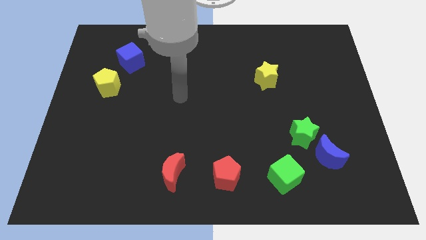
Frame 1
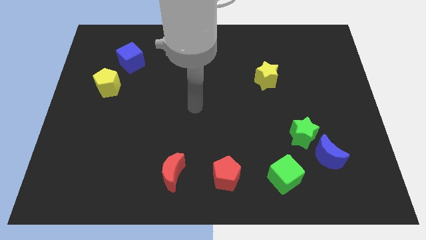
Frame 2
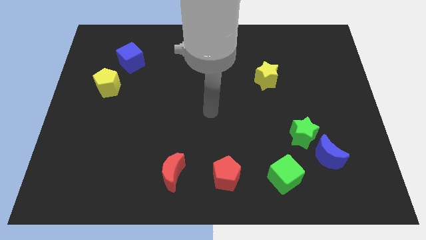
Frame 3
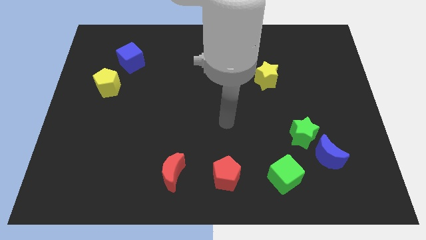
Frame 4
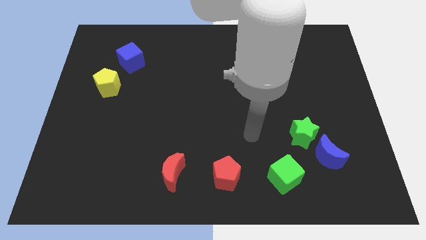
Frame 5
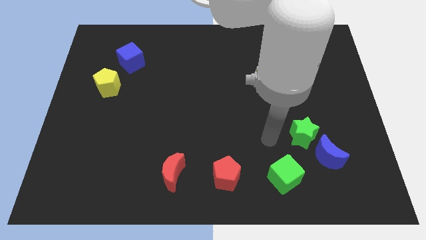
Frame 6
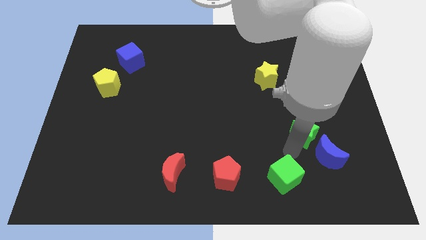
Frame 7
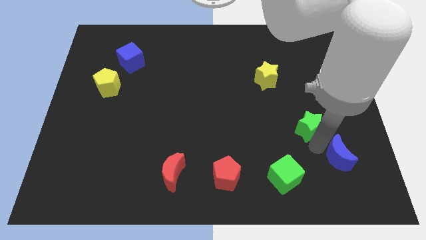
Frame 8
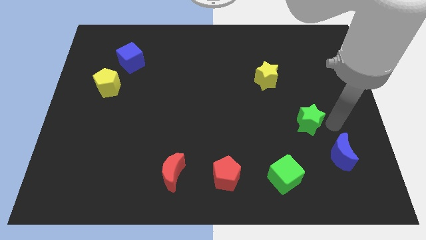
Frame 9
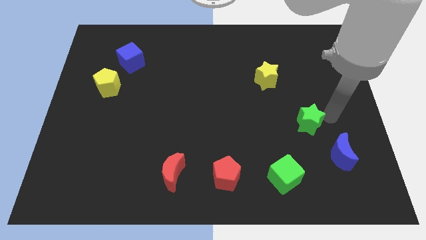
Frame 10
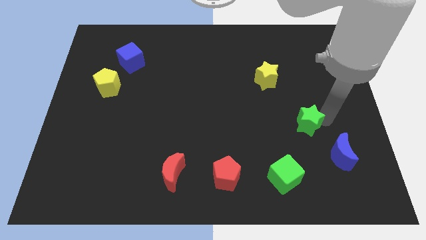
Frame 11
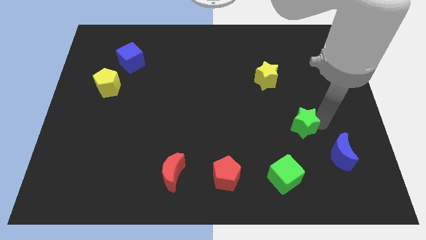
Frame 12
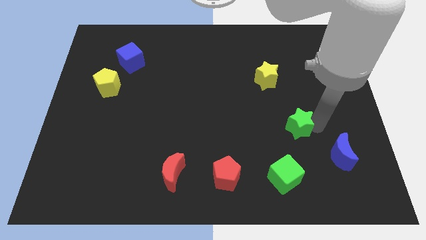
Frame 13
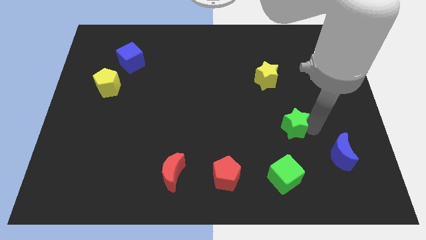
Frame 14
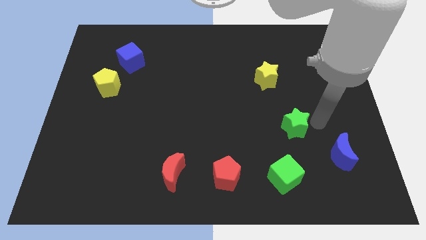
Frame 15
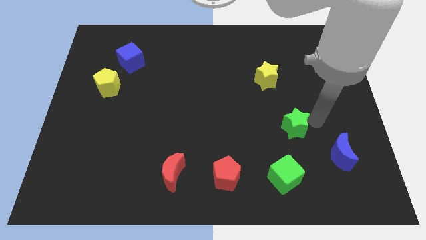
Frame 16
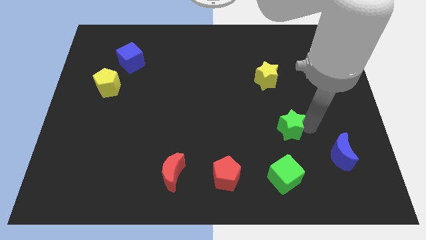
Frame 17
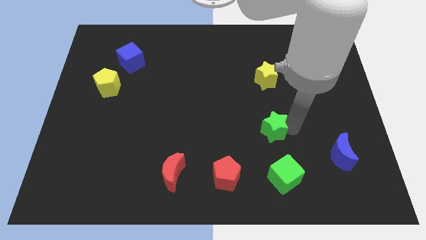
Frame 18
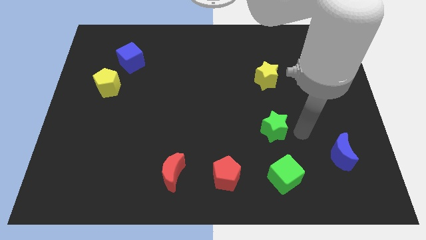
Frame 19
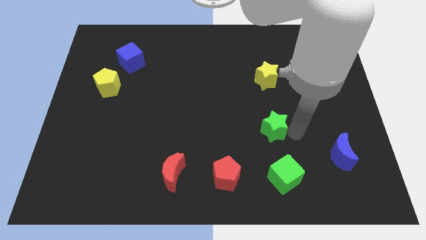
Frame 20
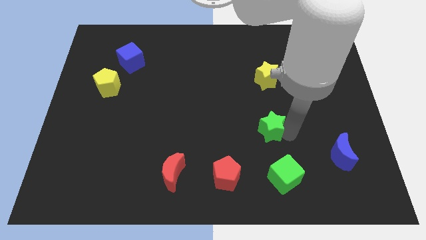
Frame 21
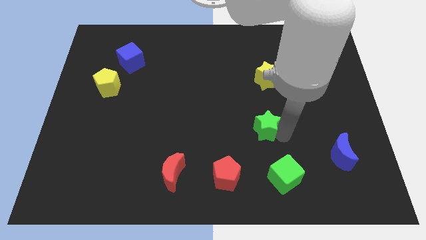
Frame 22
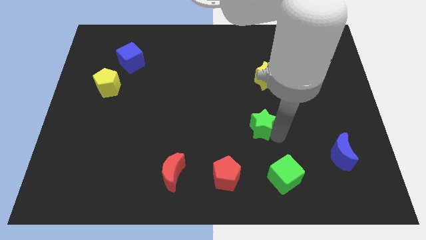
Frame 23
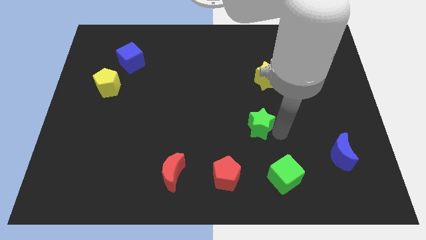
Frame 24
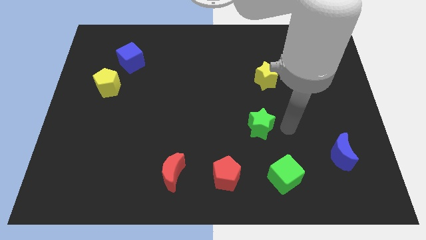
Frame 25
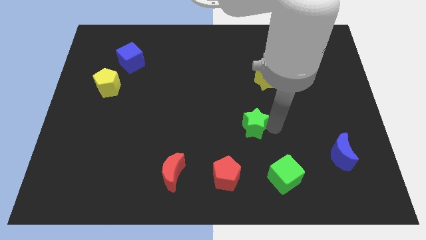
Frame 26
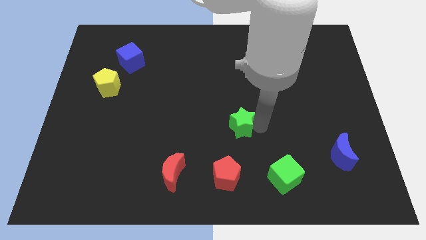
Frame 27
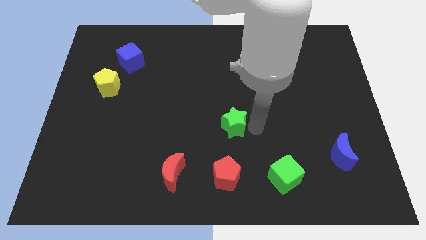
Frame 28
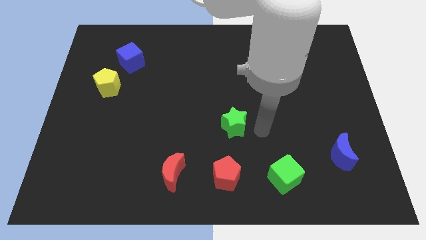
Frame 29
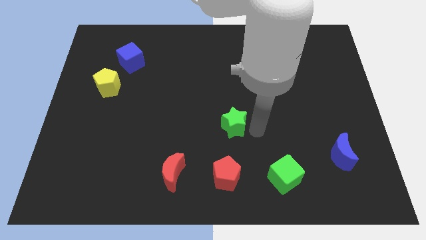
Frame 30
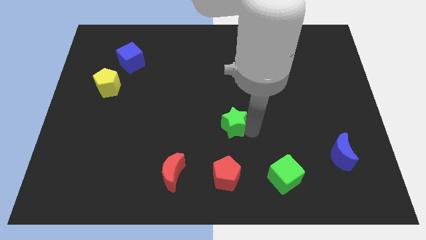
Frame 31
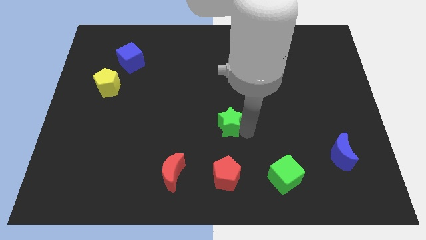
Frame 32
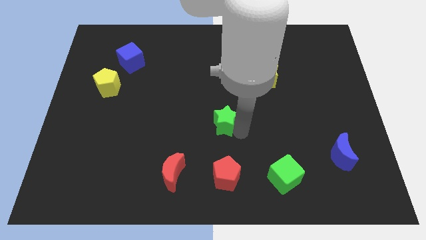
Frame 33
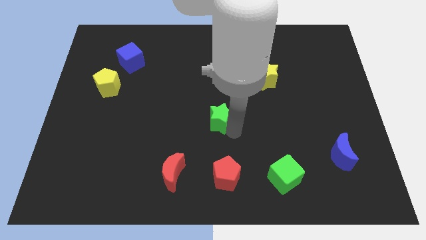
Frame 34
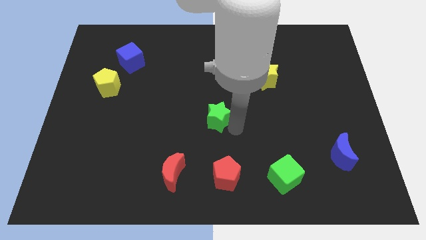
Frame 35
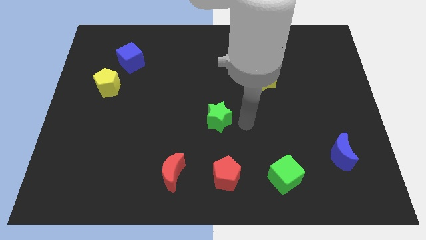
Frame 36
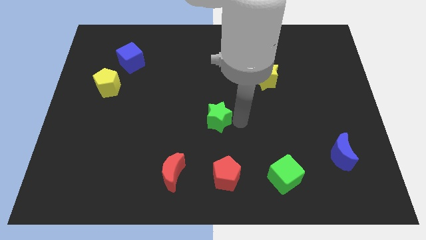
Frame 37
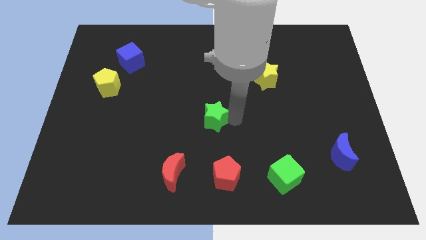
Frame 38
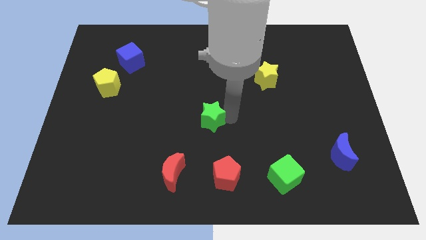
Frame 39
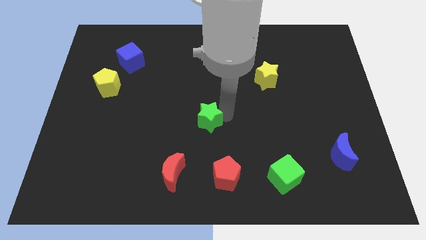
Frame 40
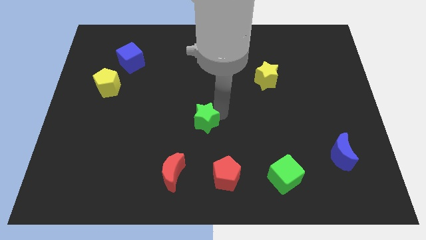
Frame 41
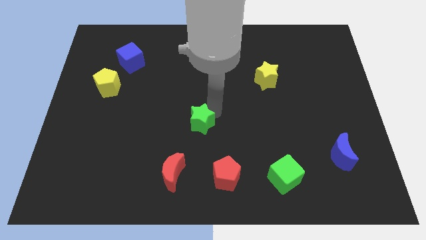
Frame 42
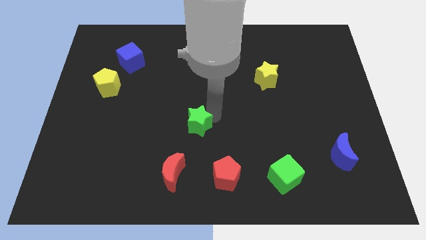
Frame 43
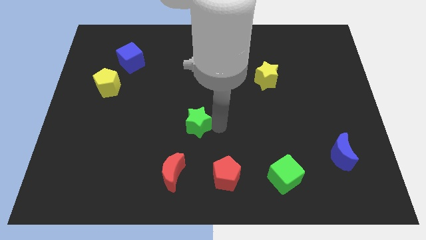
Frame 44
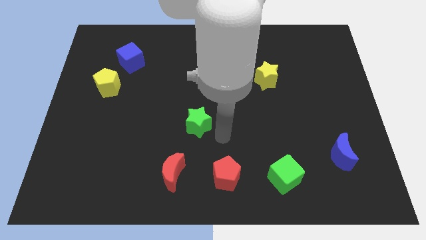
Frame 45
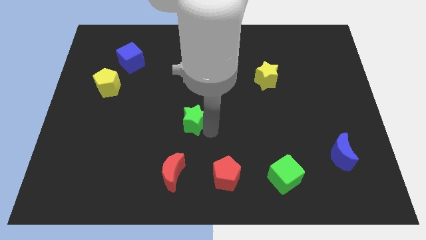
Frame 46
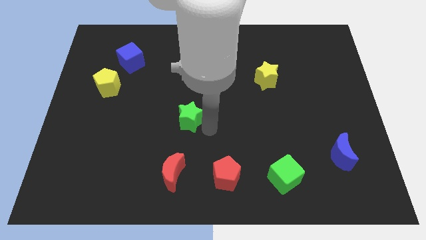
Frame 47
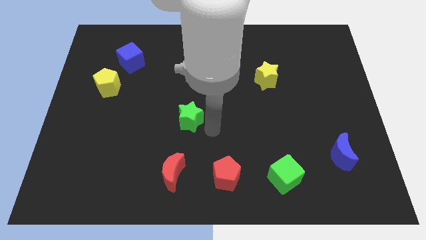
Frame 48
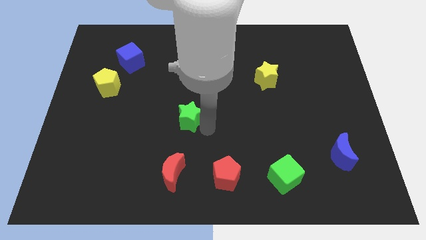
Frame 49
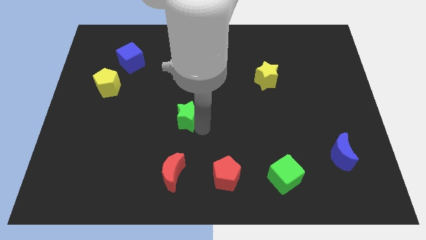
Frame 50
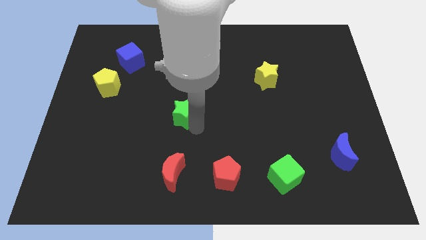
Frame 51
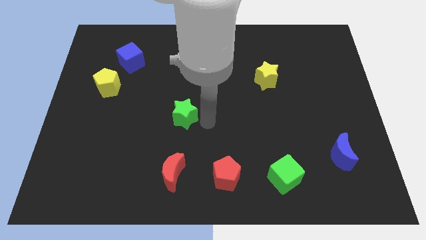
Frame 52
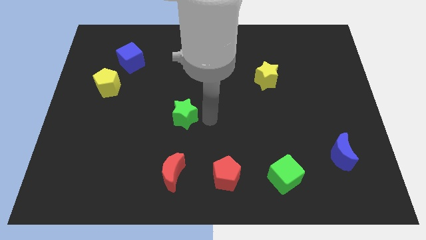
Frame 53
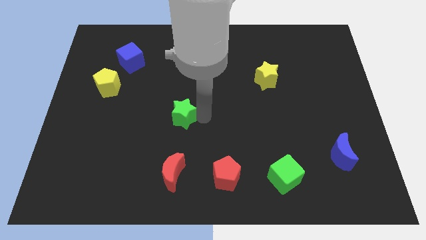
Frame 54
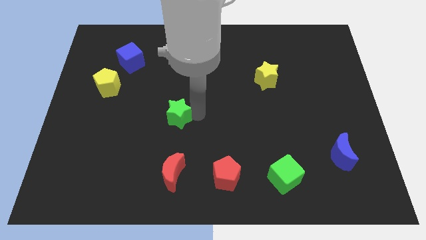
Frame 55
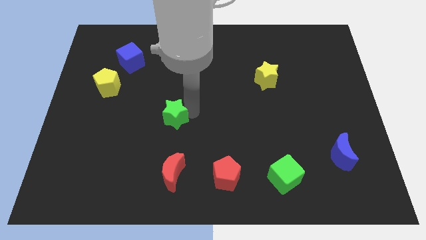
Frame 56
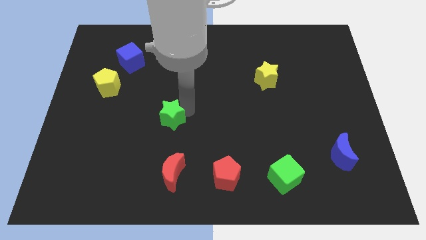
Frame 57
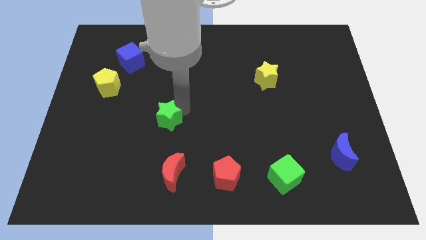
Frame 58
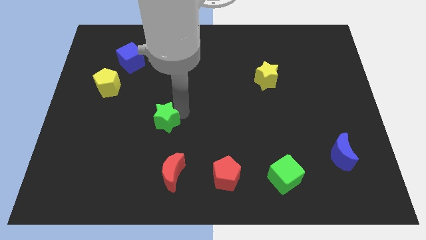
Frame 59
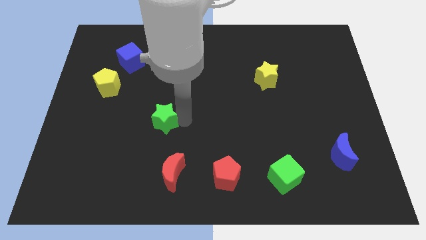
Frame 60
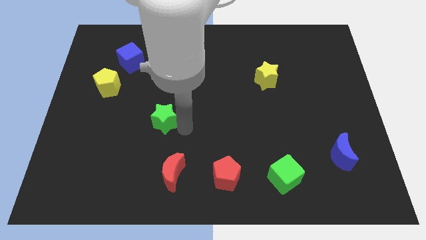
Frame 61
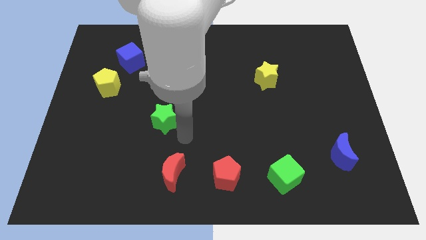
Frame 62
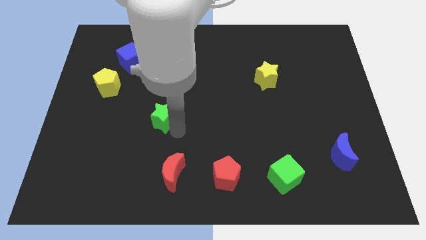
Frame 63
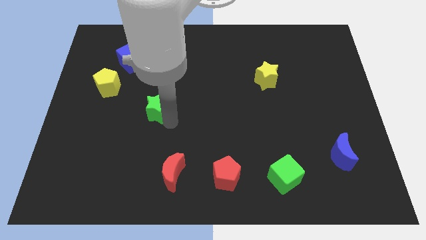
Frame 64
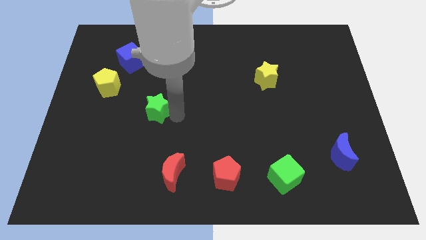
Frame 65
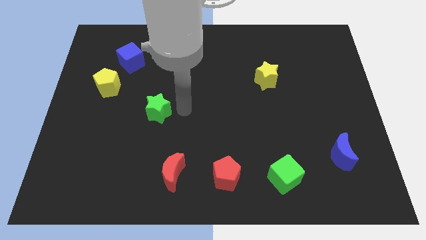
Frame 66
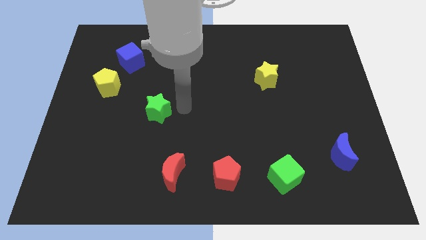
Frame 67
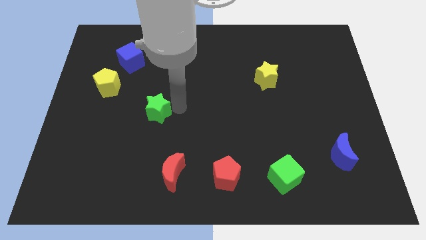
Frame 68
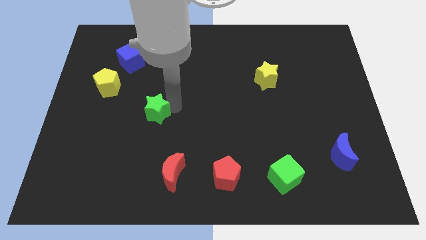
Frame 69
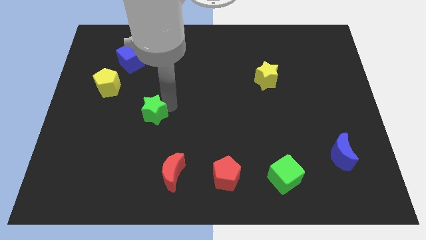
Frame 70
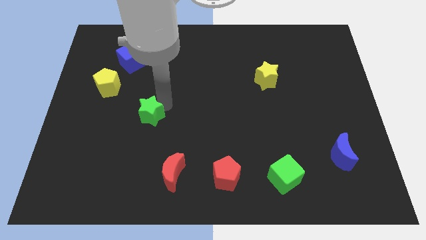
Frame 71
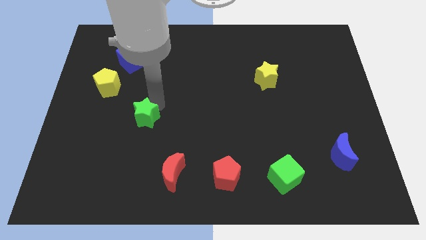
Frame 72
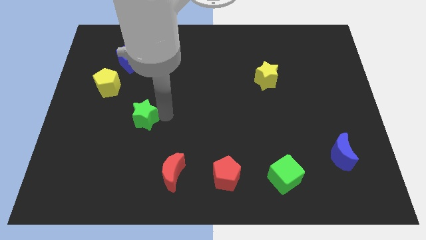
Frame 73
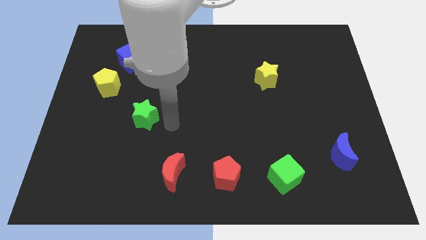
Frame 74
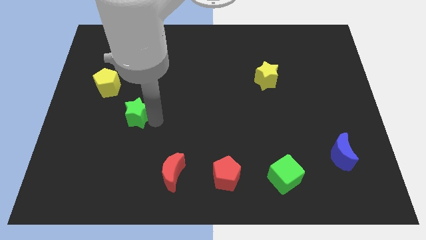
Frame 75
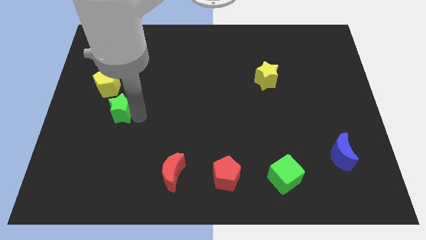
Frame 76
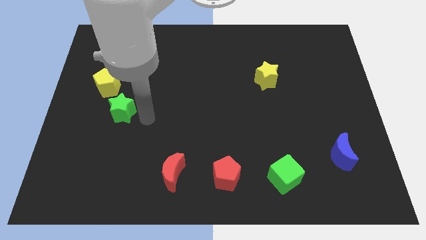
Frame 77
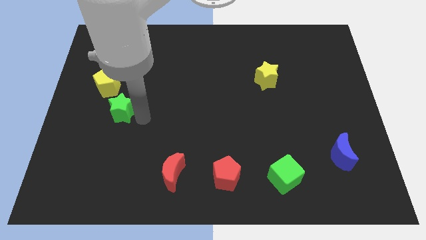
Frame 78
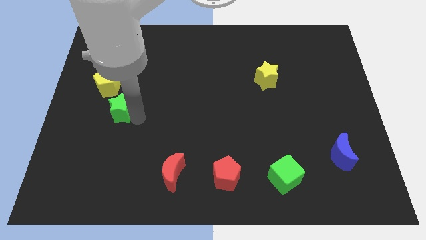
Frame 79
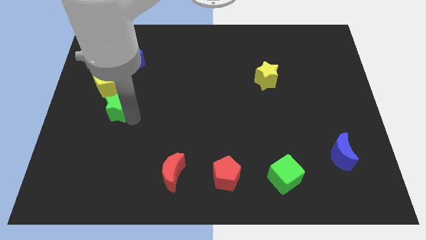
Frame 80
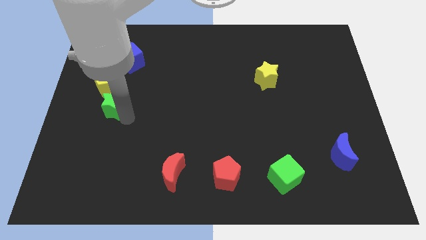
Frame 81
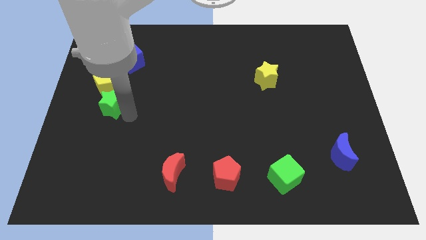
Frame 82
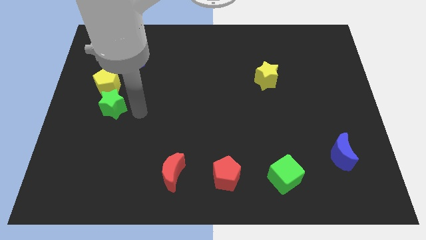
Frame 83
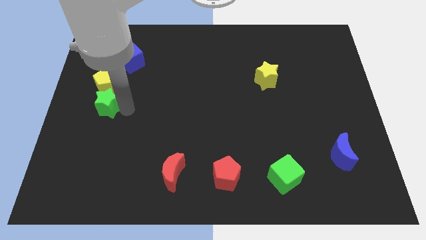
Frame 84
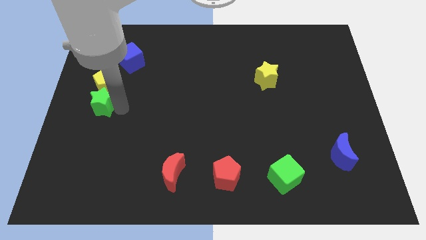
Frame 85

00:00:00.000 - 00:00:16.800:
push the green star to the center left
